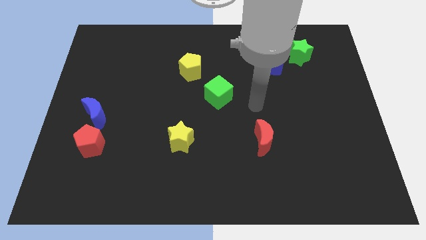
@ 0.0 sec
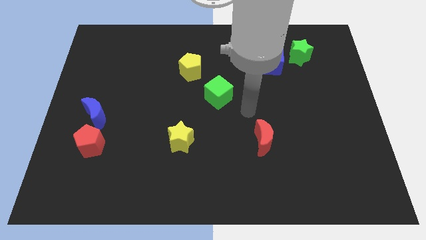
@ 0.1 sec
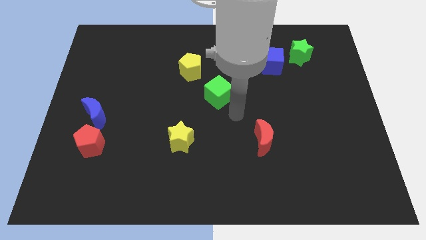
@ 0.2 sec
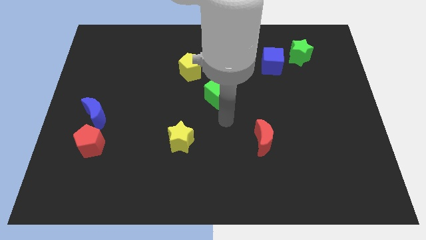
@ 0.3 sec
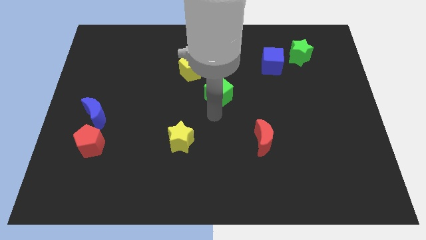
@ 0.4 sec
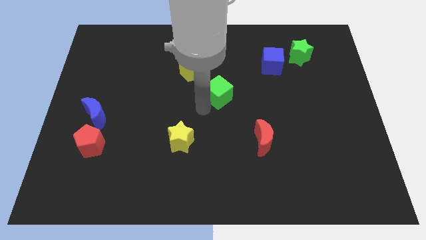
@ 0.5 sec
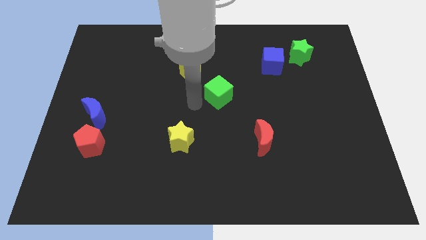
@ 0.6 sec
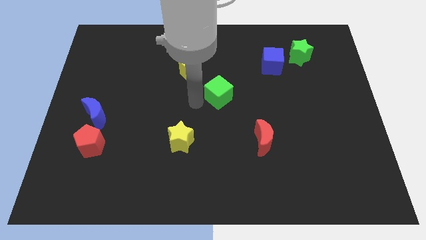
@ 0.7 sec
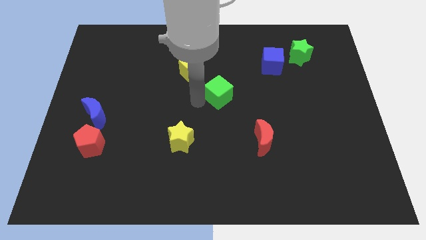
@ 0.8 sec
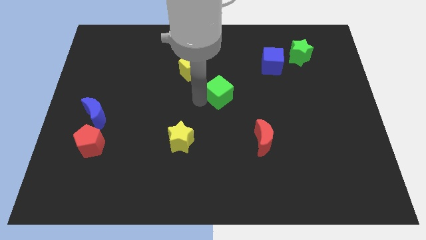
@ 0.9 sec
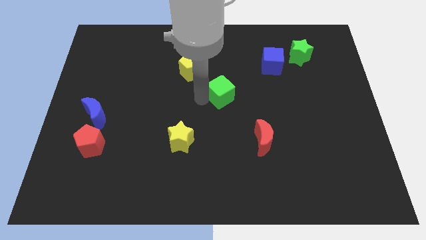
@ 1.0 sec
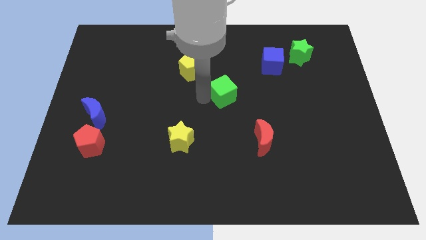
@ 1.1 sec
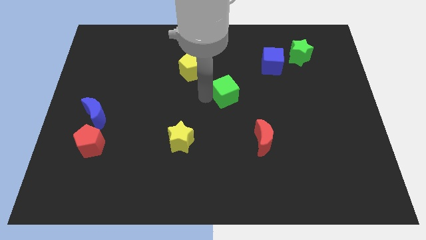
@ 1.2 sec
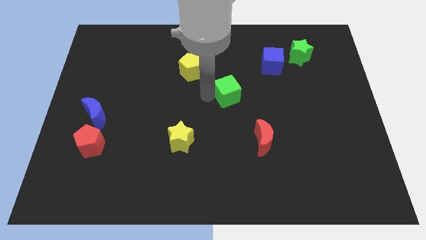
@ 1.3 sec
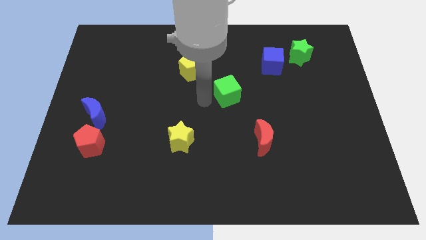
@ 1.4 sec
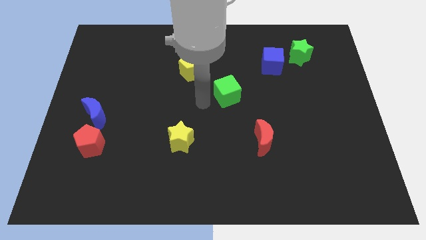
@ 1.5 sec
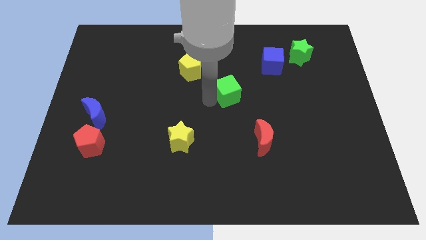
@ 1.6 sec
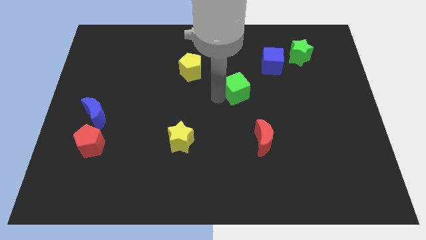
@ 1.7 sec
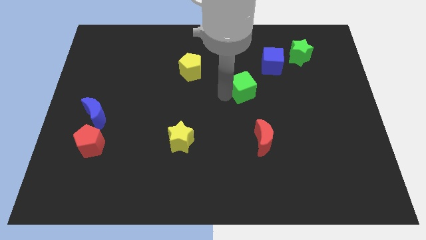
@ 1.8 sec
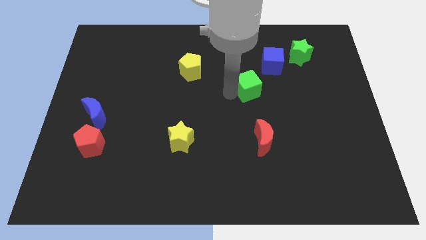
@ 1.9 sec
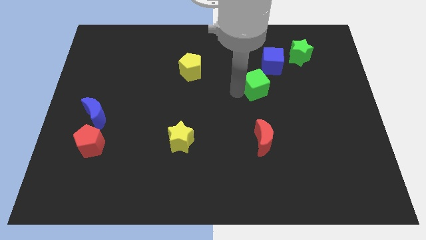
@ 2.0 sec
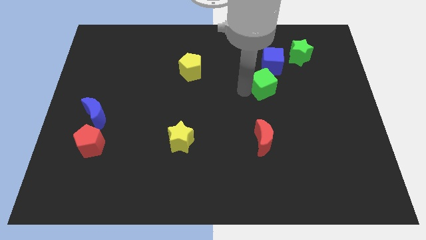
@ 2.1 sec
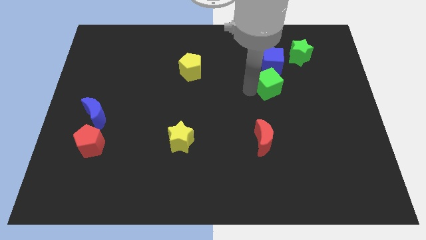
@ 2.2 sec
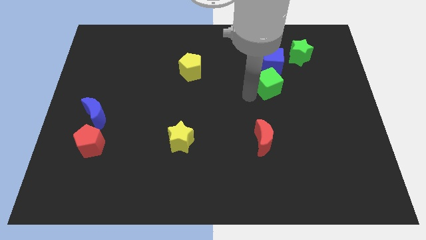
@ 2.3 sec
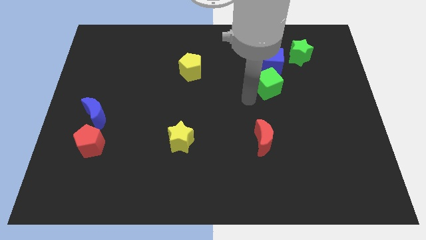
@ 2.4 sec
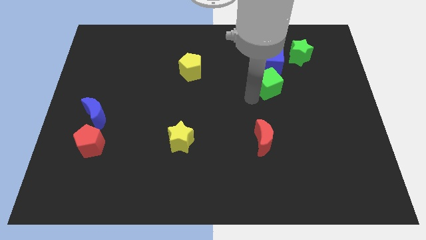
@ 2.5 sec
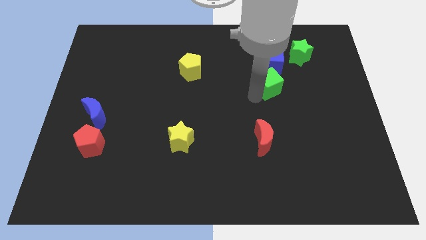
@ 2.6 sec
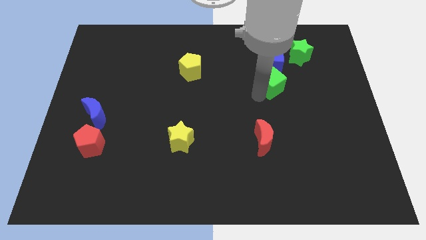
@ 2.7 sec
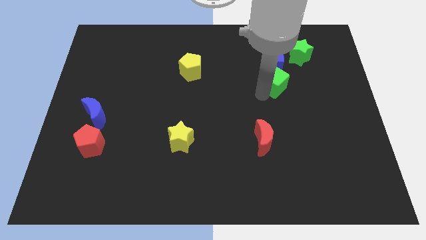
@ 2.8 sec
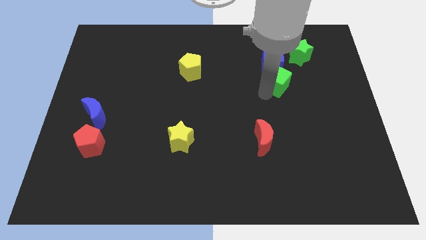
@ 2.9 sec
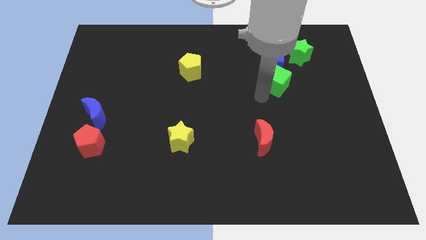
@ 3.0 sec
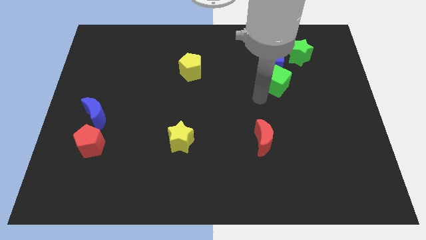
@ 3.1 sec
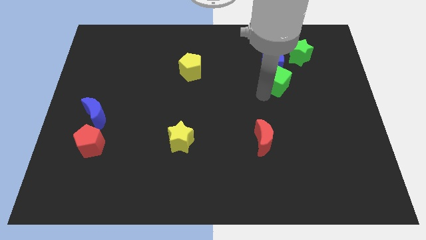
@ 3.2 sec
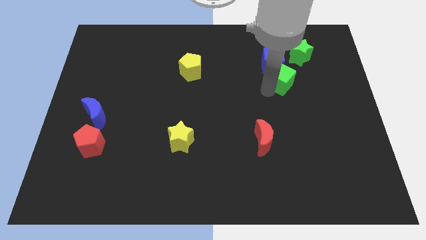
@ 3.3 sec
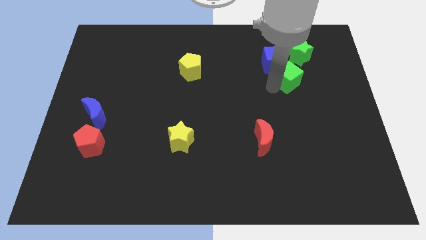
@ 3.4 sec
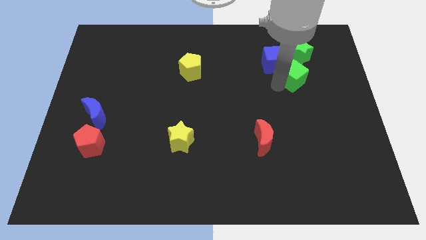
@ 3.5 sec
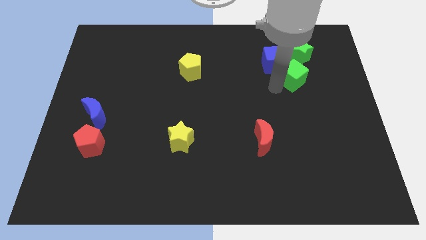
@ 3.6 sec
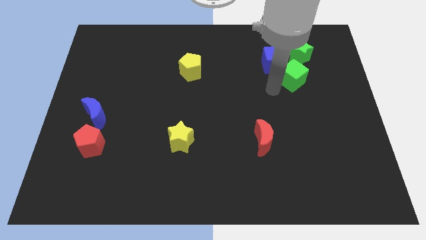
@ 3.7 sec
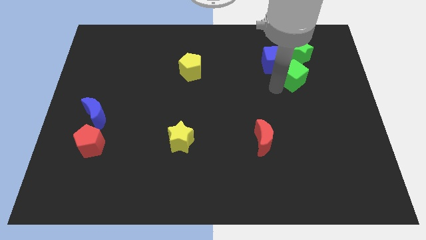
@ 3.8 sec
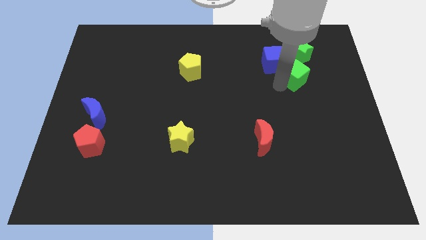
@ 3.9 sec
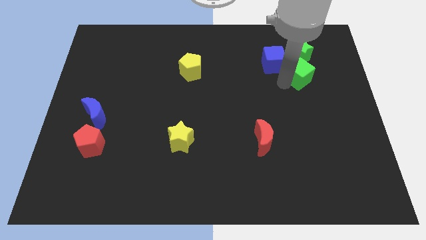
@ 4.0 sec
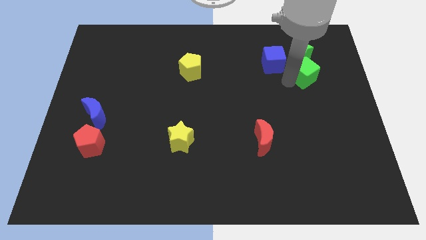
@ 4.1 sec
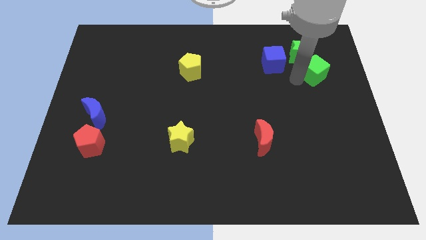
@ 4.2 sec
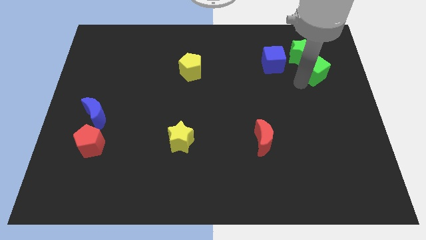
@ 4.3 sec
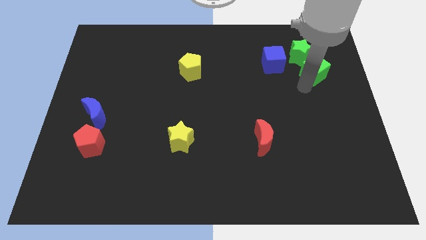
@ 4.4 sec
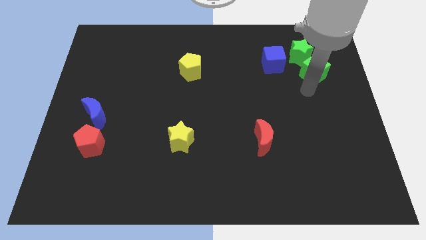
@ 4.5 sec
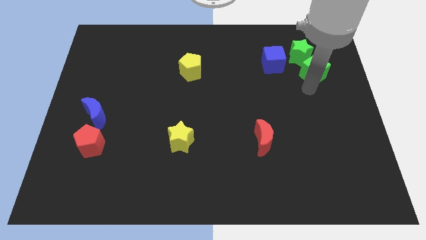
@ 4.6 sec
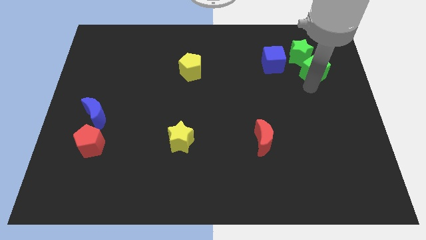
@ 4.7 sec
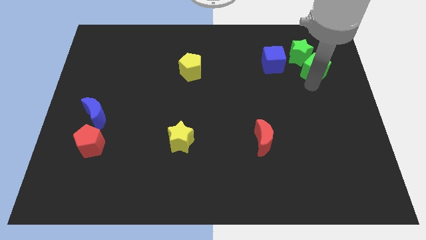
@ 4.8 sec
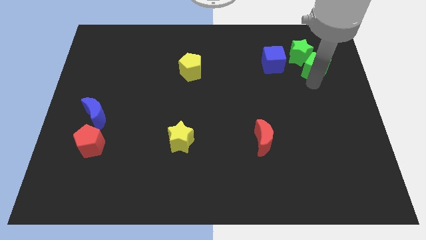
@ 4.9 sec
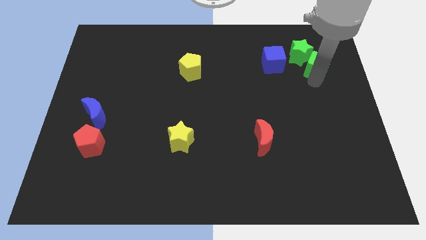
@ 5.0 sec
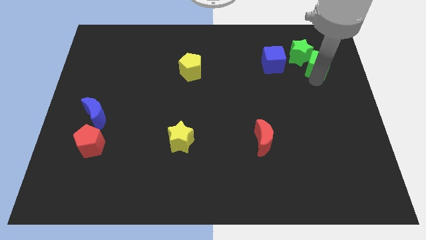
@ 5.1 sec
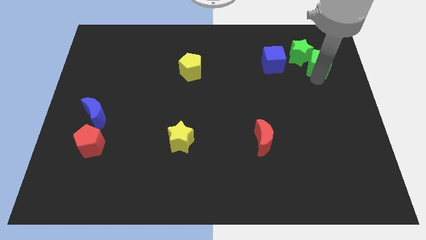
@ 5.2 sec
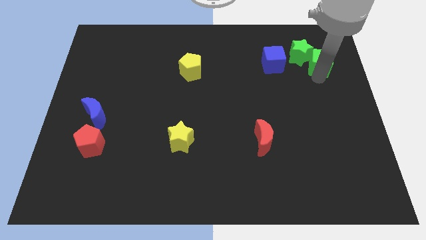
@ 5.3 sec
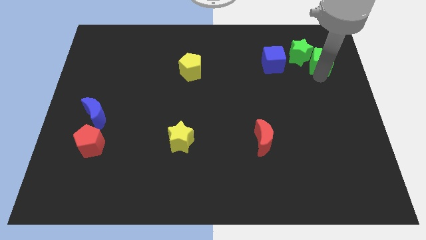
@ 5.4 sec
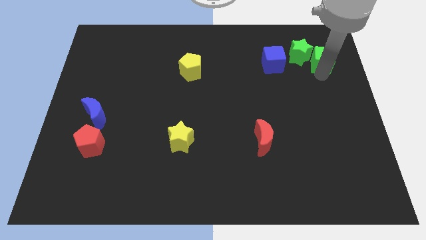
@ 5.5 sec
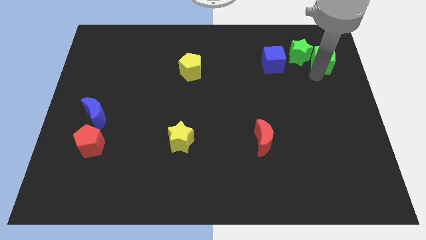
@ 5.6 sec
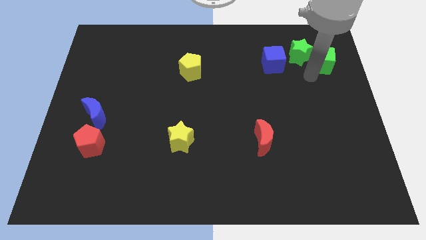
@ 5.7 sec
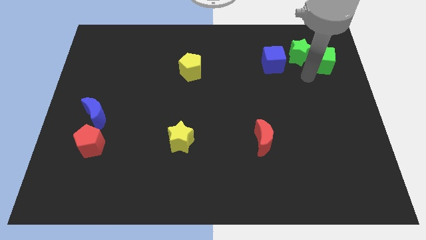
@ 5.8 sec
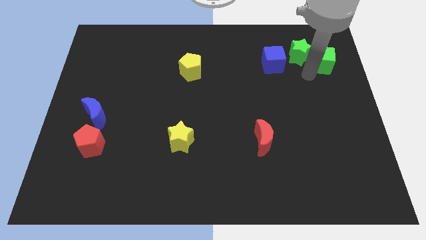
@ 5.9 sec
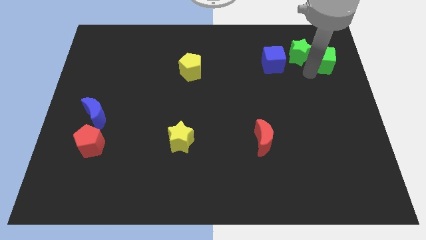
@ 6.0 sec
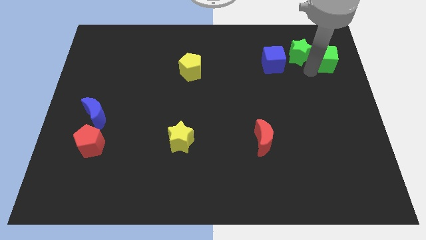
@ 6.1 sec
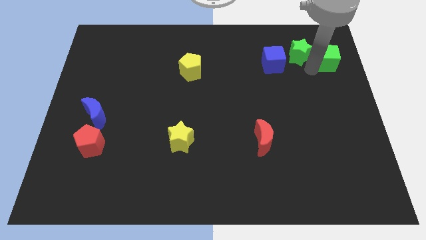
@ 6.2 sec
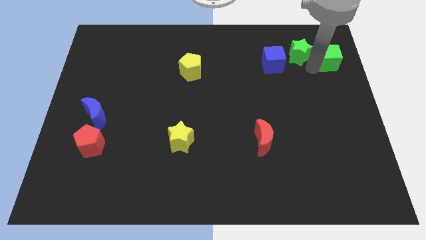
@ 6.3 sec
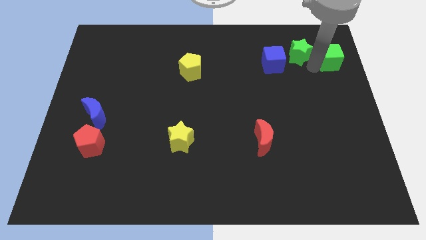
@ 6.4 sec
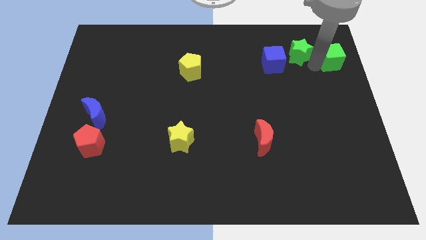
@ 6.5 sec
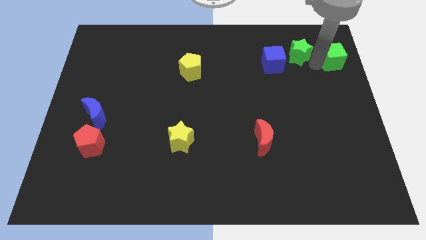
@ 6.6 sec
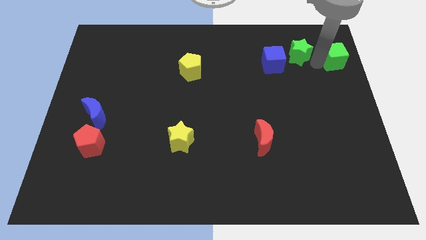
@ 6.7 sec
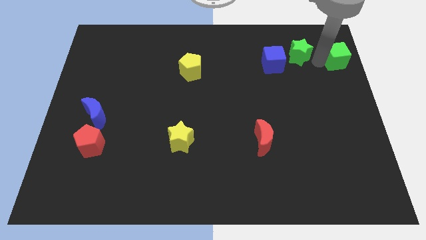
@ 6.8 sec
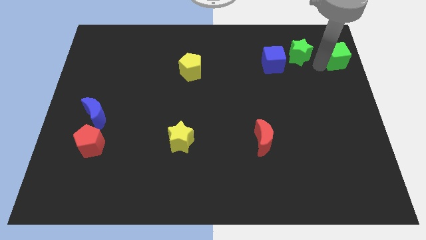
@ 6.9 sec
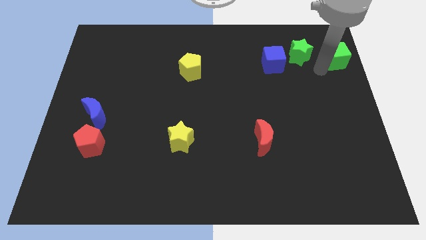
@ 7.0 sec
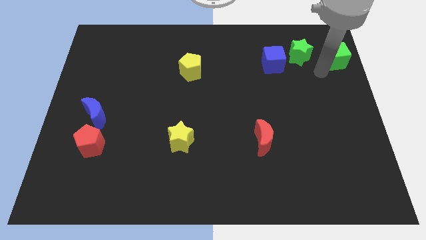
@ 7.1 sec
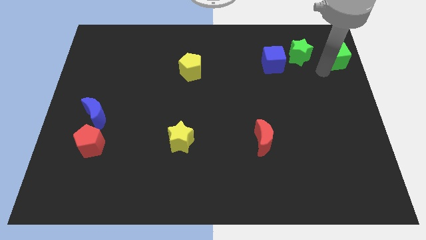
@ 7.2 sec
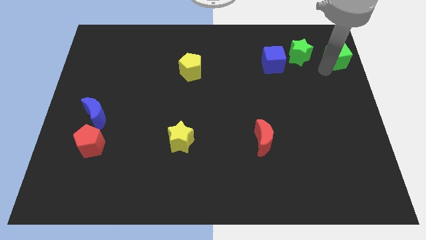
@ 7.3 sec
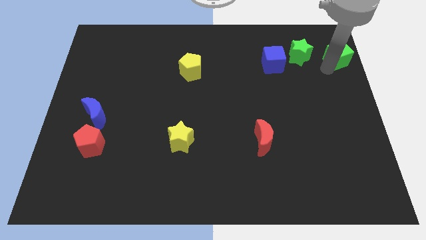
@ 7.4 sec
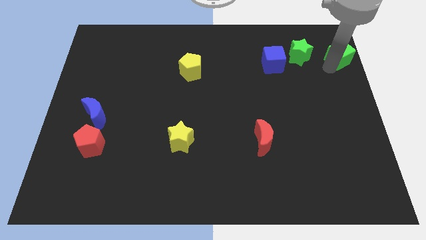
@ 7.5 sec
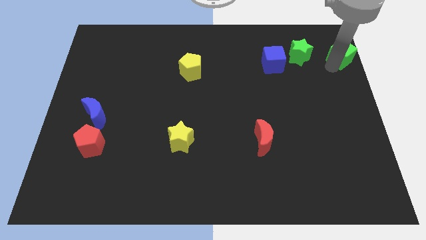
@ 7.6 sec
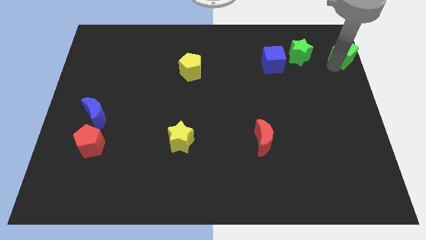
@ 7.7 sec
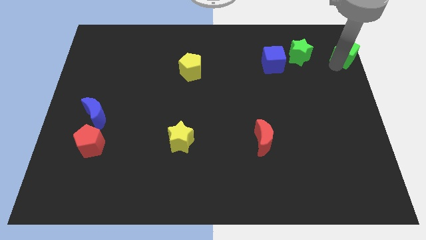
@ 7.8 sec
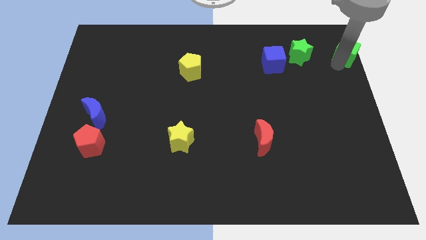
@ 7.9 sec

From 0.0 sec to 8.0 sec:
slide the green cube to the upper right corner
